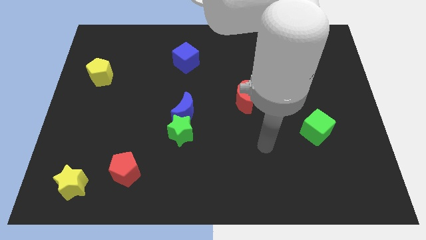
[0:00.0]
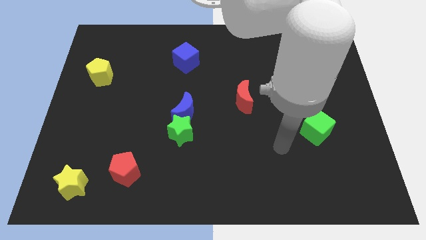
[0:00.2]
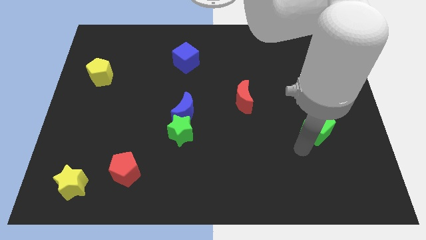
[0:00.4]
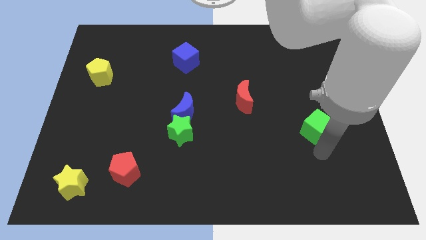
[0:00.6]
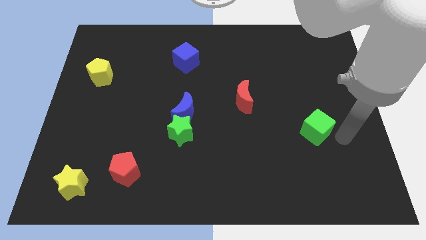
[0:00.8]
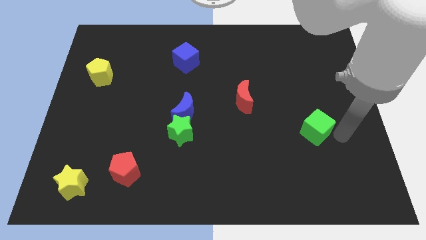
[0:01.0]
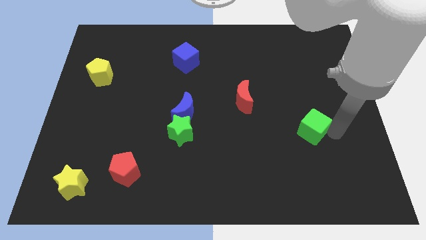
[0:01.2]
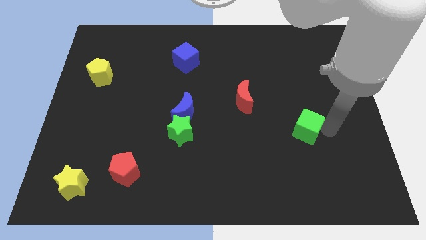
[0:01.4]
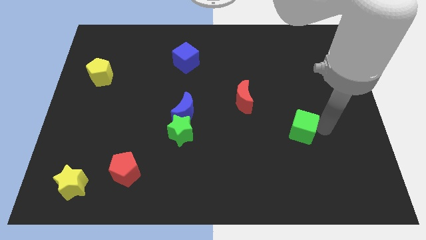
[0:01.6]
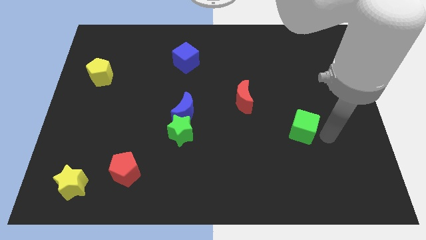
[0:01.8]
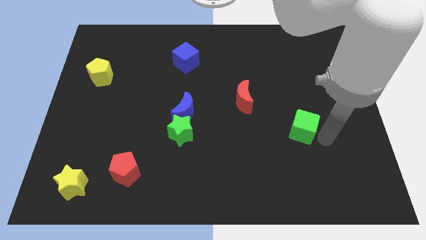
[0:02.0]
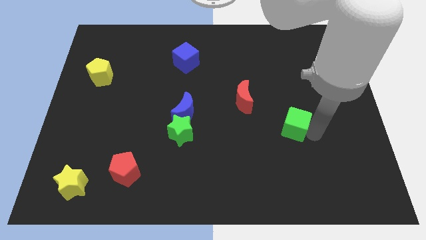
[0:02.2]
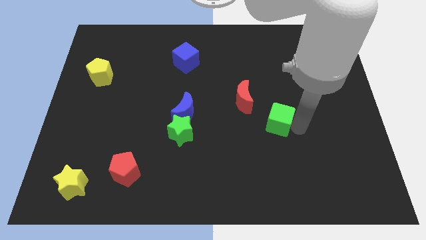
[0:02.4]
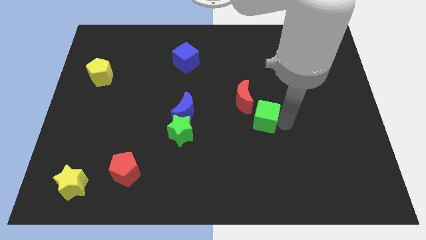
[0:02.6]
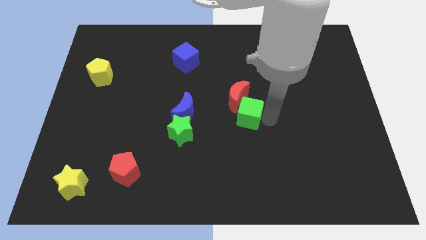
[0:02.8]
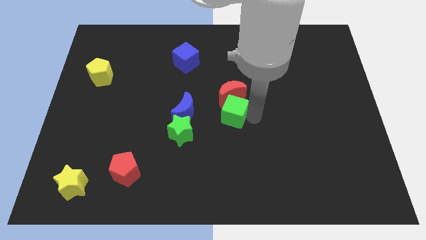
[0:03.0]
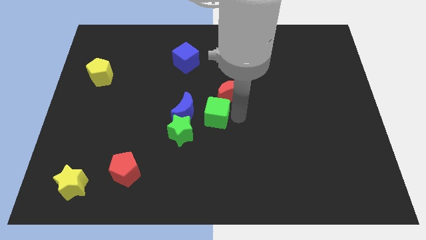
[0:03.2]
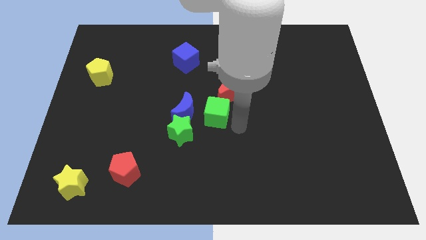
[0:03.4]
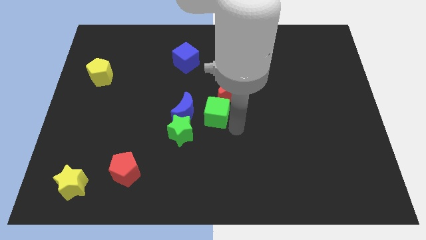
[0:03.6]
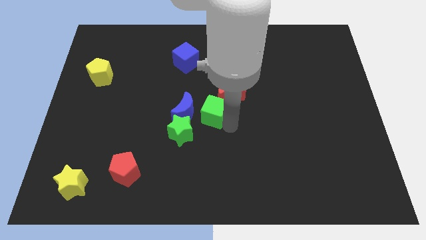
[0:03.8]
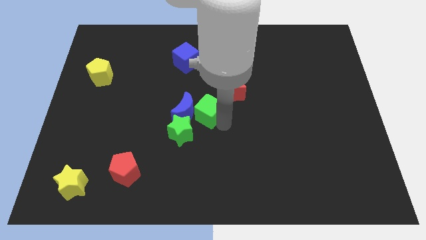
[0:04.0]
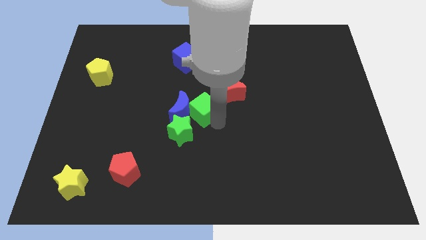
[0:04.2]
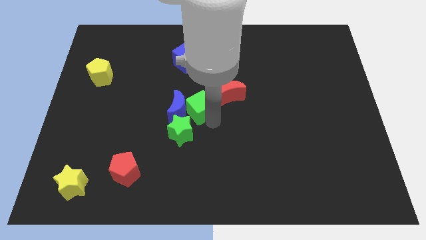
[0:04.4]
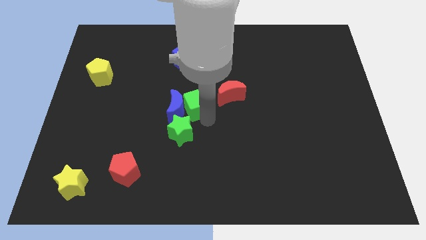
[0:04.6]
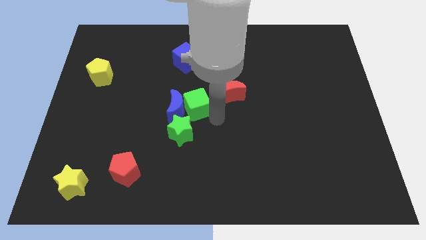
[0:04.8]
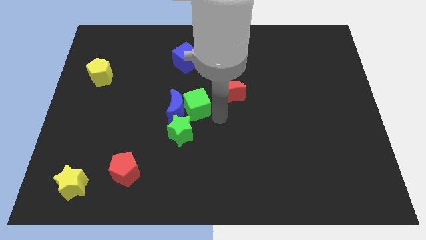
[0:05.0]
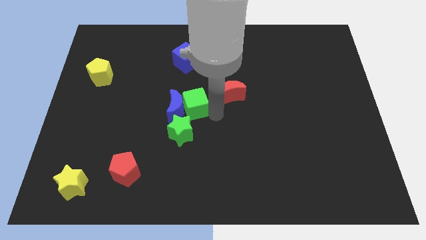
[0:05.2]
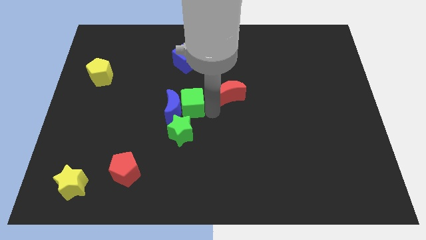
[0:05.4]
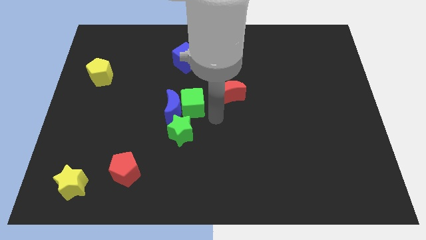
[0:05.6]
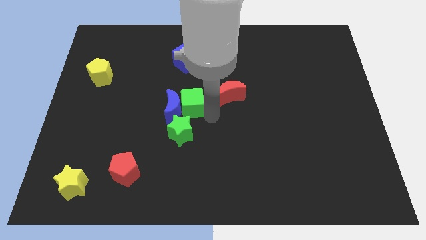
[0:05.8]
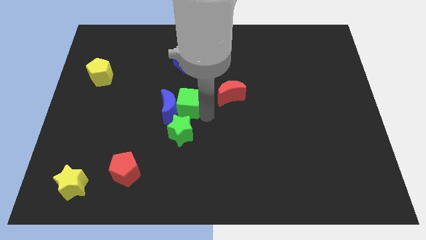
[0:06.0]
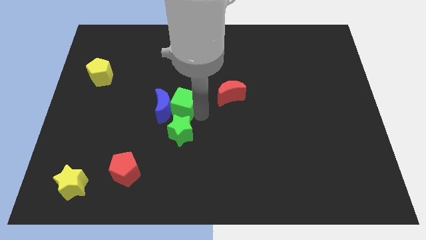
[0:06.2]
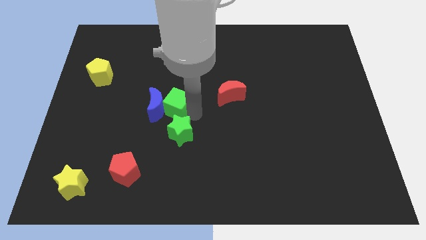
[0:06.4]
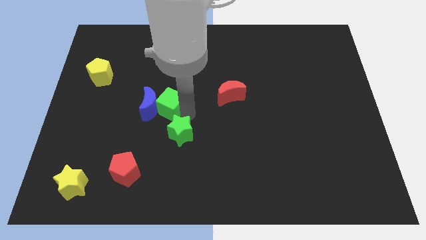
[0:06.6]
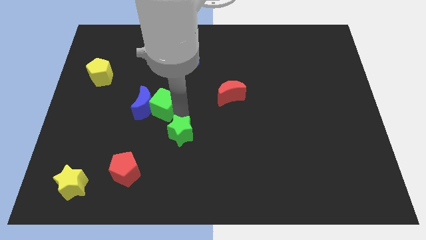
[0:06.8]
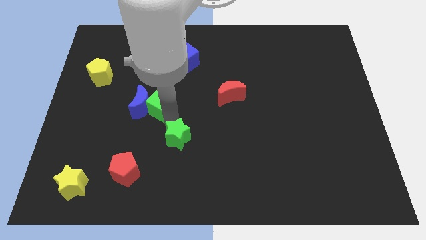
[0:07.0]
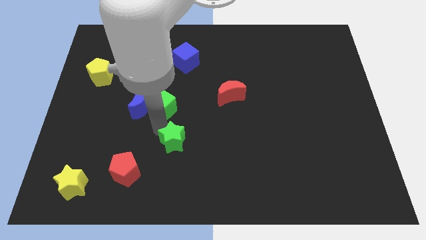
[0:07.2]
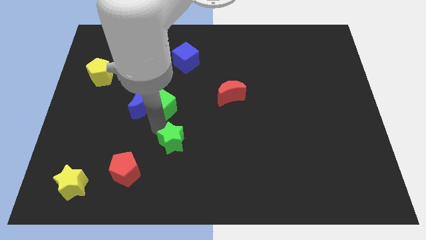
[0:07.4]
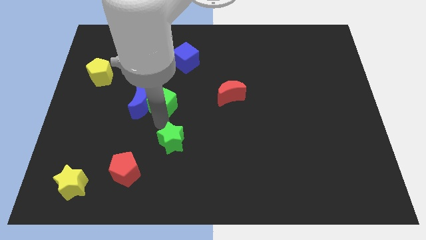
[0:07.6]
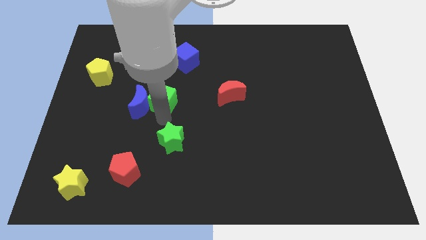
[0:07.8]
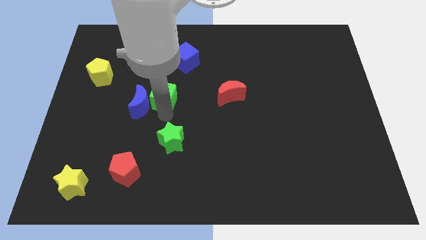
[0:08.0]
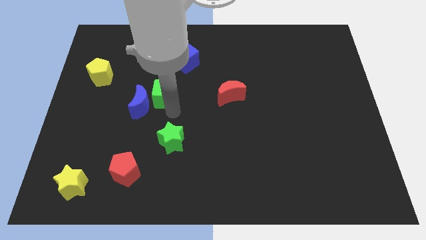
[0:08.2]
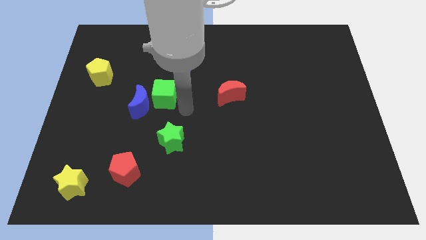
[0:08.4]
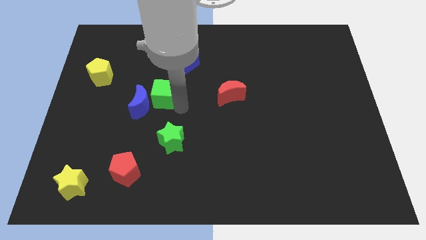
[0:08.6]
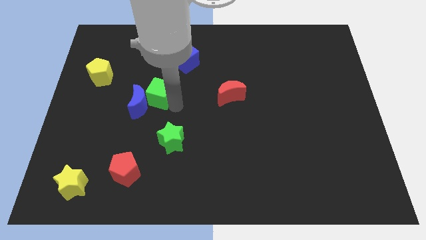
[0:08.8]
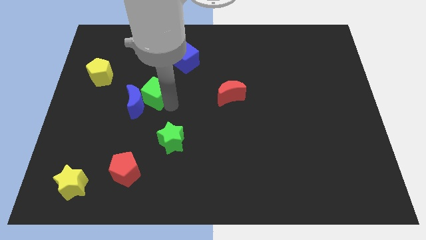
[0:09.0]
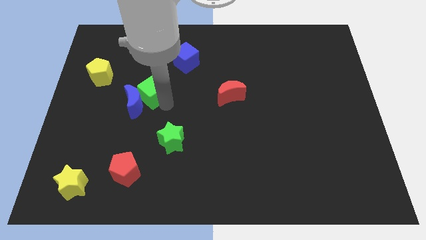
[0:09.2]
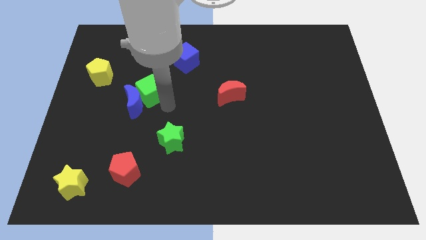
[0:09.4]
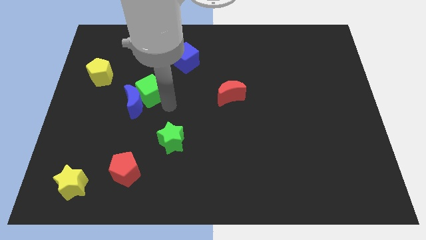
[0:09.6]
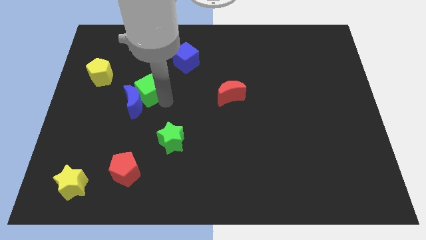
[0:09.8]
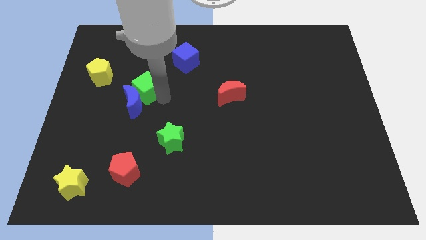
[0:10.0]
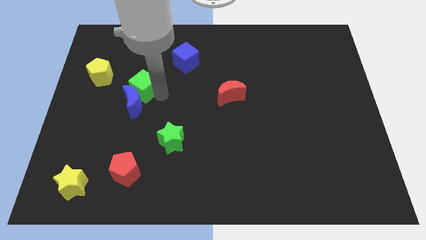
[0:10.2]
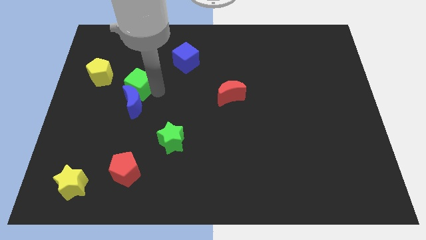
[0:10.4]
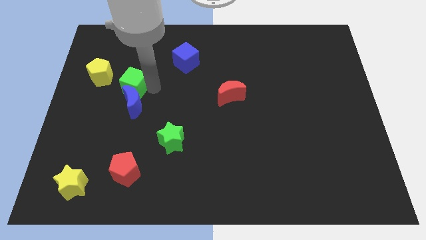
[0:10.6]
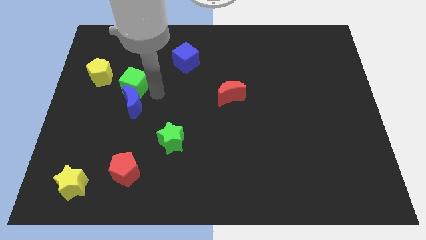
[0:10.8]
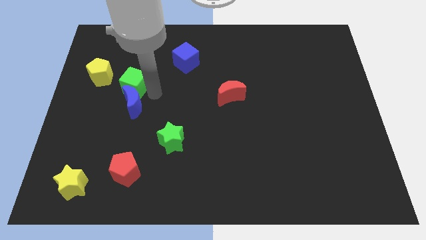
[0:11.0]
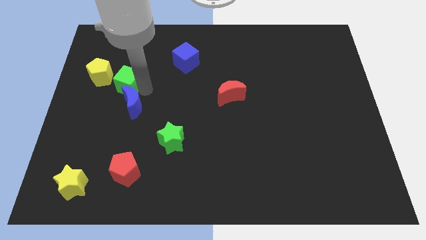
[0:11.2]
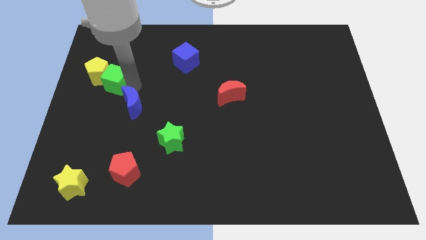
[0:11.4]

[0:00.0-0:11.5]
put the green cube to the yellow pentagon

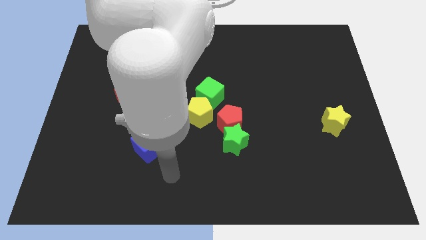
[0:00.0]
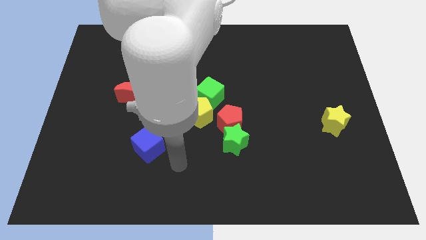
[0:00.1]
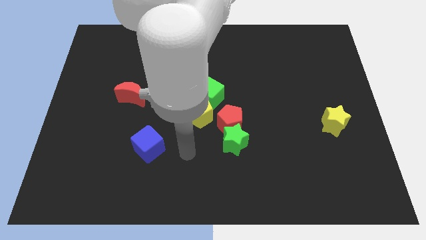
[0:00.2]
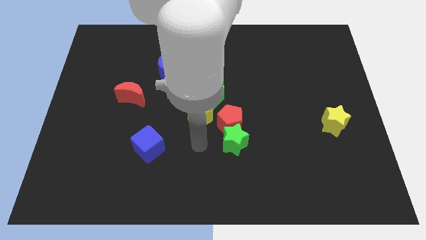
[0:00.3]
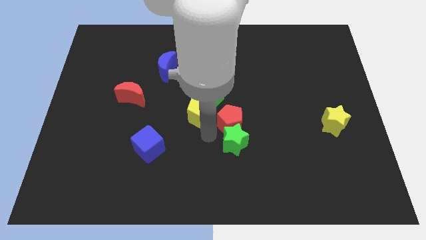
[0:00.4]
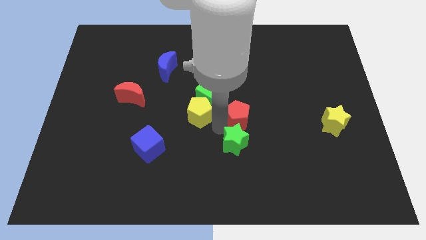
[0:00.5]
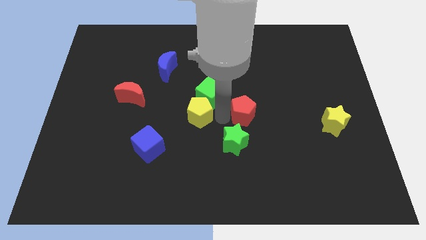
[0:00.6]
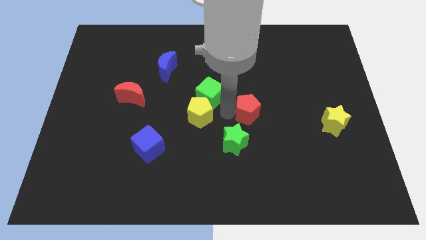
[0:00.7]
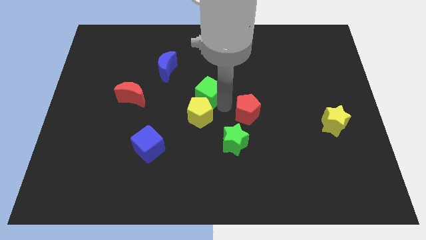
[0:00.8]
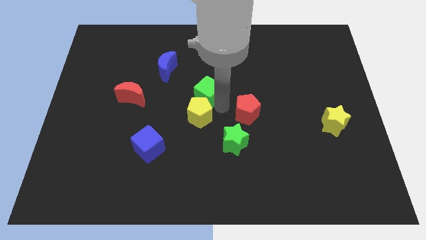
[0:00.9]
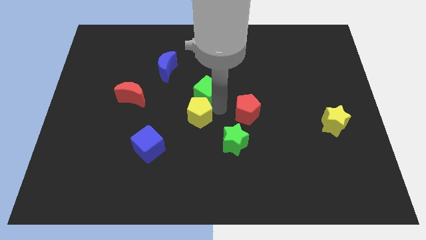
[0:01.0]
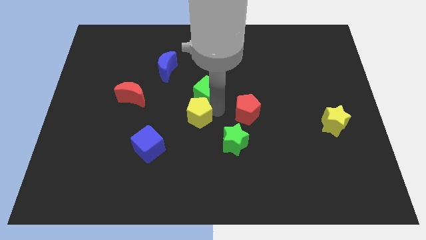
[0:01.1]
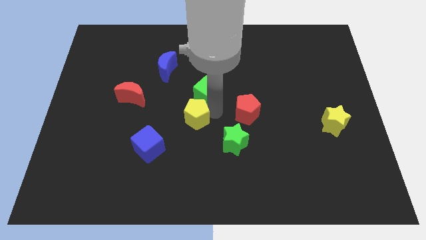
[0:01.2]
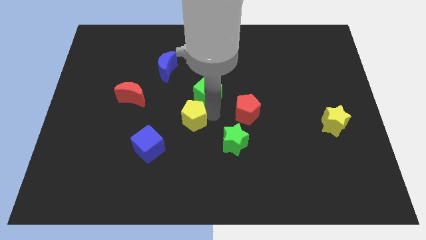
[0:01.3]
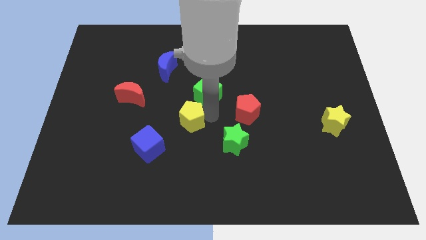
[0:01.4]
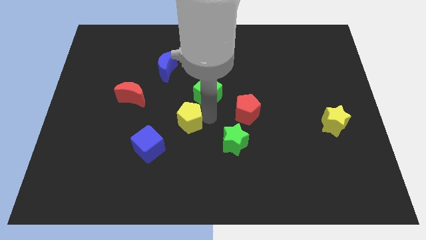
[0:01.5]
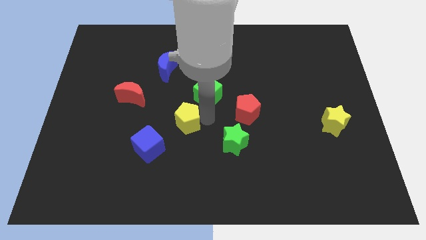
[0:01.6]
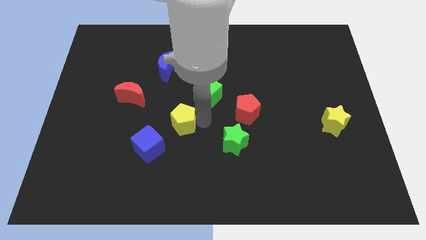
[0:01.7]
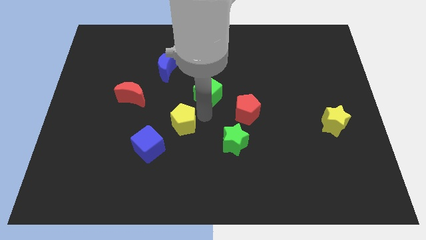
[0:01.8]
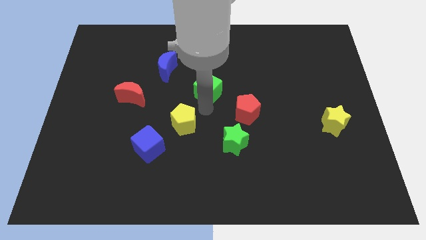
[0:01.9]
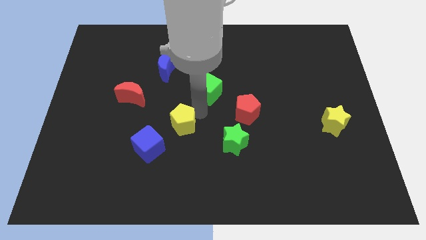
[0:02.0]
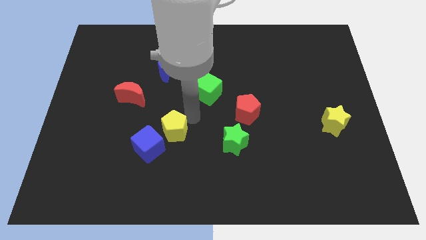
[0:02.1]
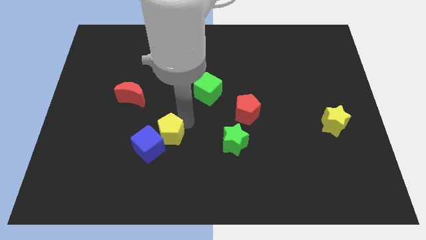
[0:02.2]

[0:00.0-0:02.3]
put the yellow pentagon towards the blue cube
